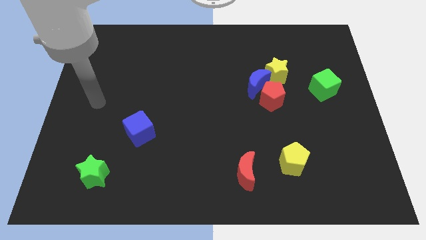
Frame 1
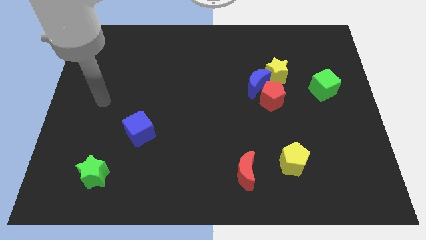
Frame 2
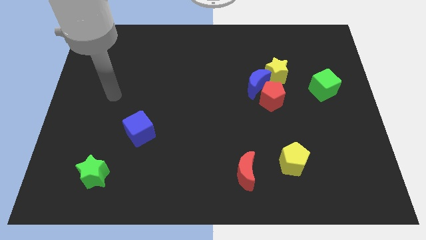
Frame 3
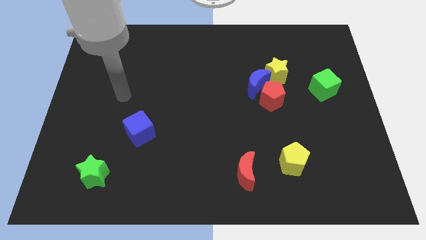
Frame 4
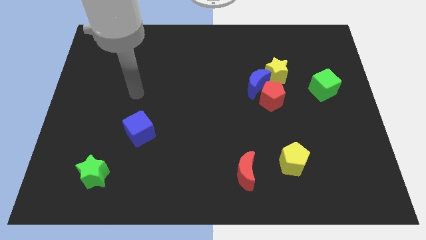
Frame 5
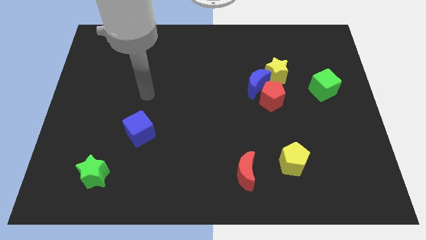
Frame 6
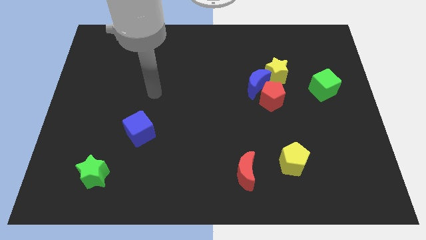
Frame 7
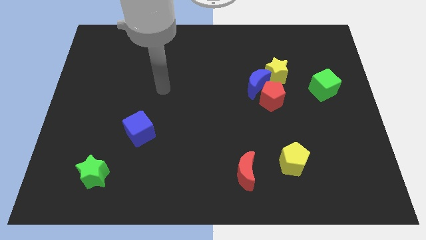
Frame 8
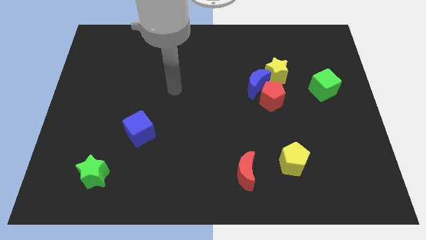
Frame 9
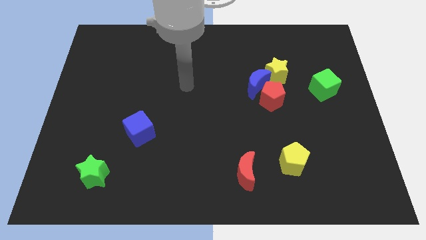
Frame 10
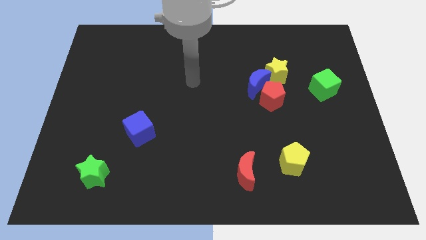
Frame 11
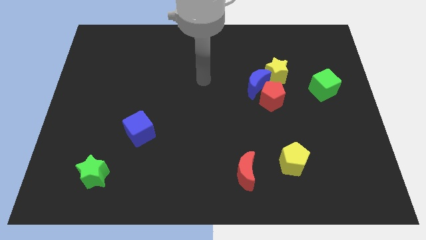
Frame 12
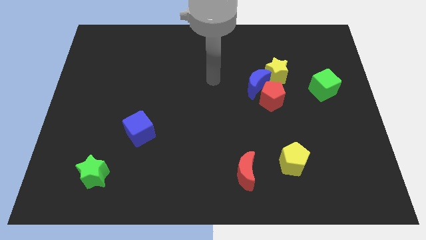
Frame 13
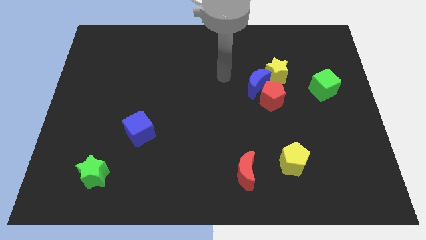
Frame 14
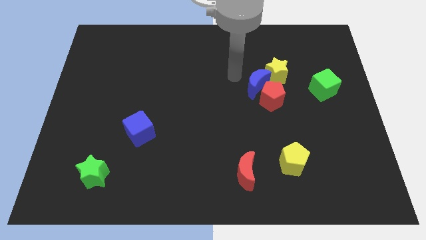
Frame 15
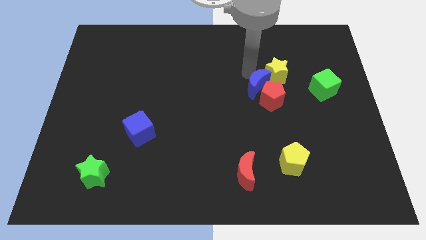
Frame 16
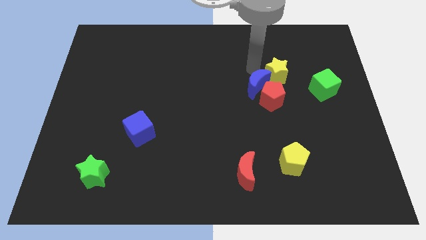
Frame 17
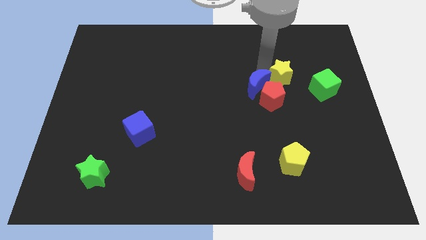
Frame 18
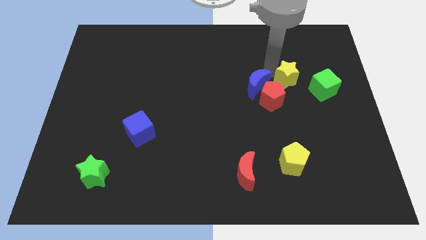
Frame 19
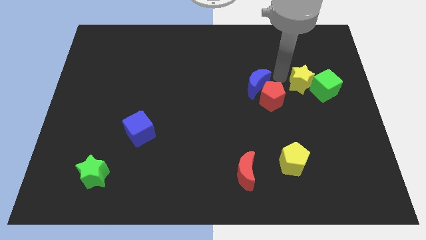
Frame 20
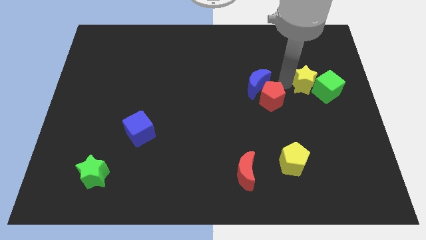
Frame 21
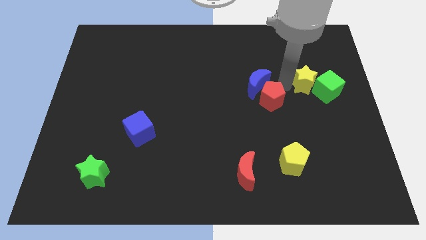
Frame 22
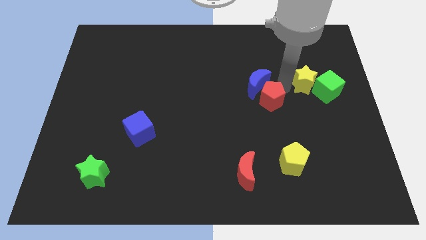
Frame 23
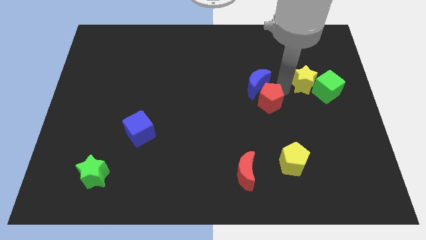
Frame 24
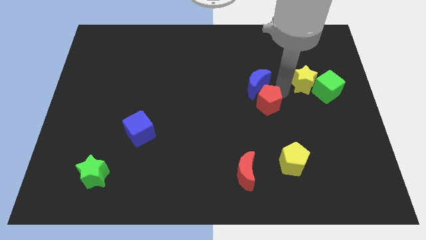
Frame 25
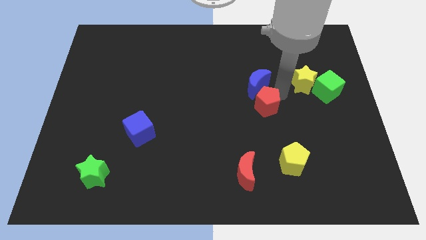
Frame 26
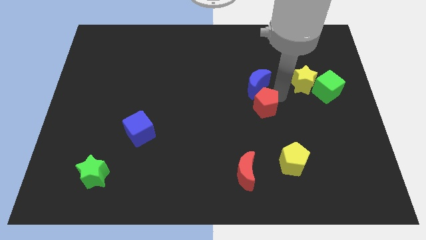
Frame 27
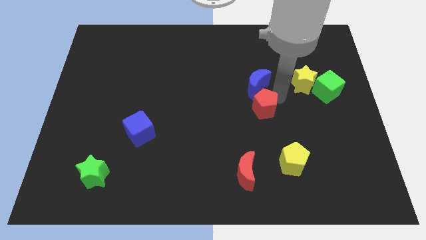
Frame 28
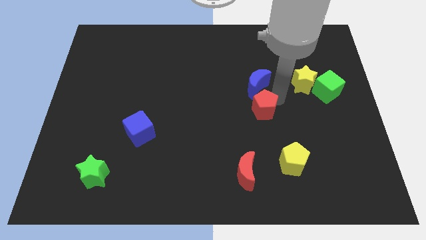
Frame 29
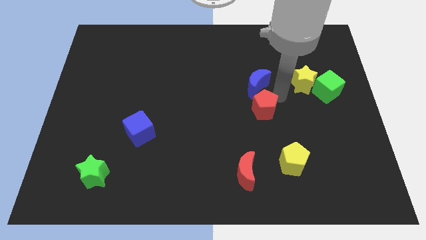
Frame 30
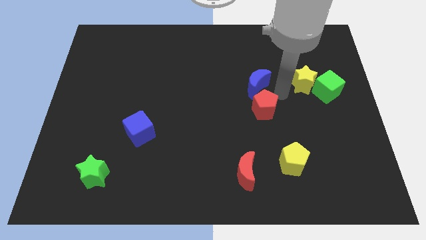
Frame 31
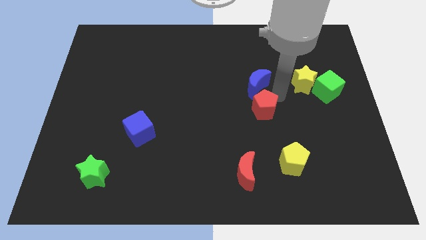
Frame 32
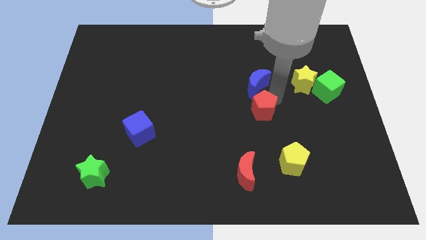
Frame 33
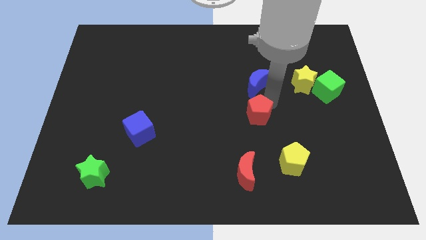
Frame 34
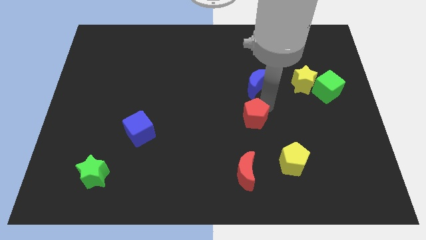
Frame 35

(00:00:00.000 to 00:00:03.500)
slide the red pentagon diagonally downwards and to the left a bit

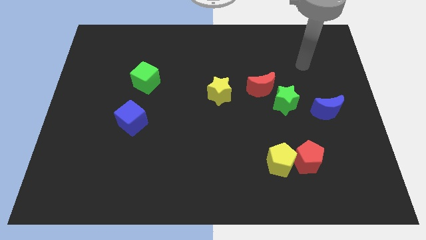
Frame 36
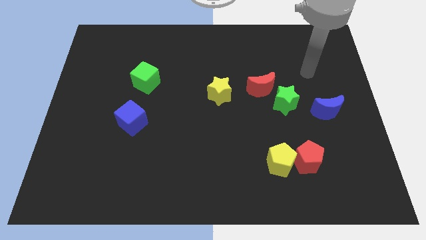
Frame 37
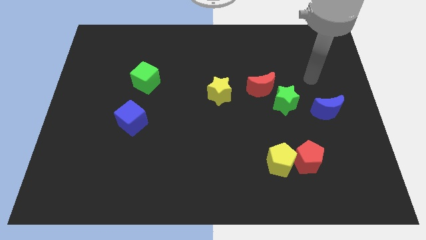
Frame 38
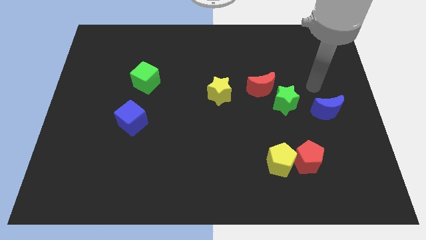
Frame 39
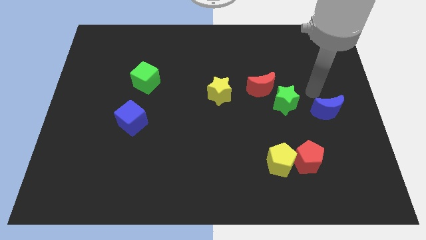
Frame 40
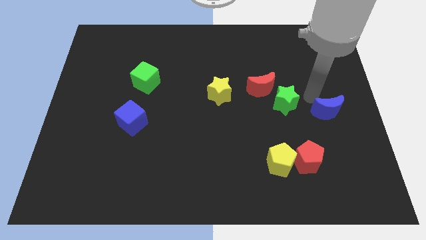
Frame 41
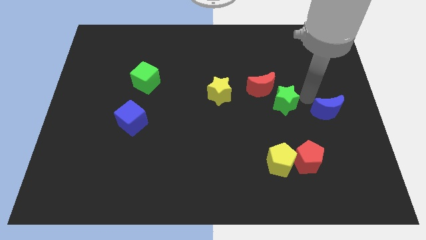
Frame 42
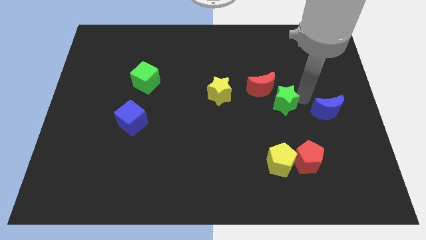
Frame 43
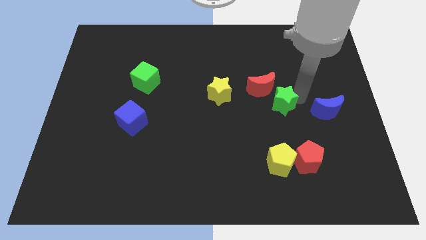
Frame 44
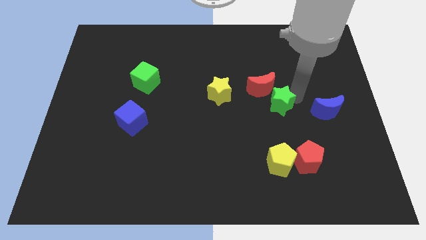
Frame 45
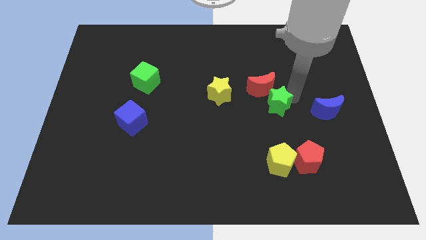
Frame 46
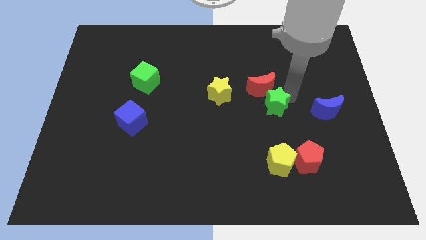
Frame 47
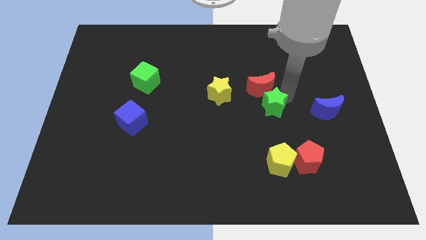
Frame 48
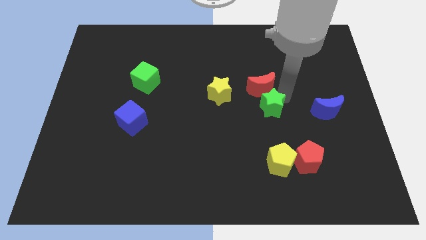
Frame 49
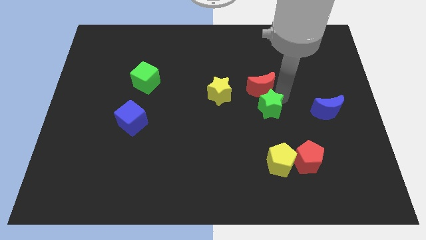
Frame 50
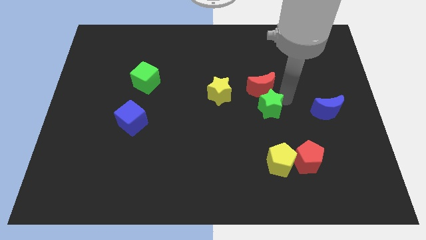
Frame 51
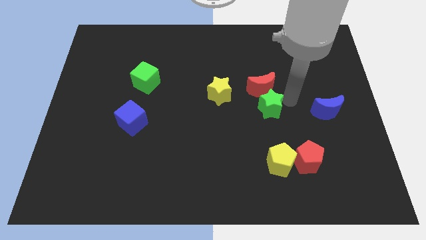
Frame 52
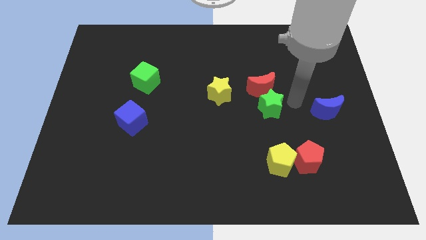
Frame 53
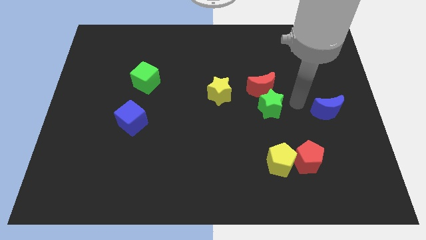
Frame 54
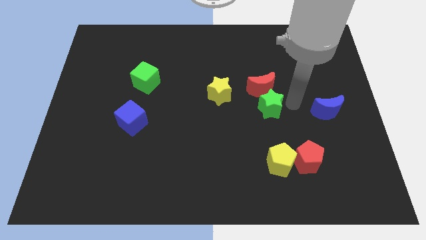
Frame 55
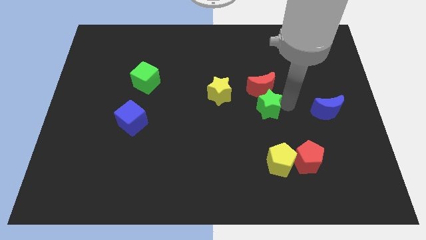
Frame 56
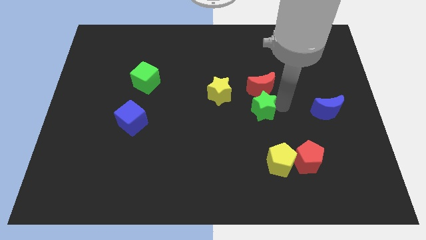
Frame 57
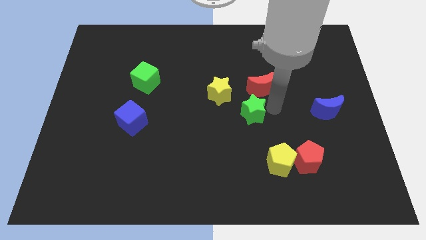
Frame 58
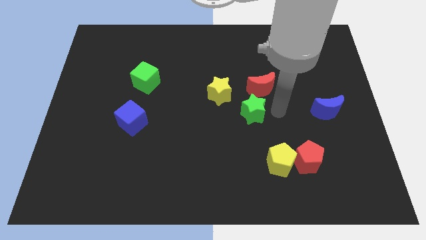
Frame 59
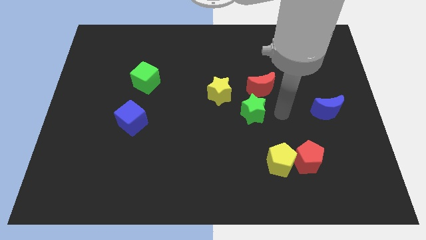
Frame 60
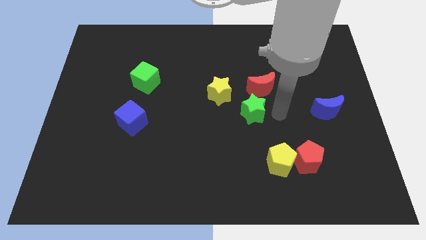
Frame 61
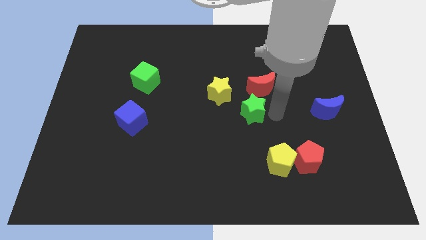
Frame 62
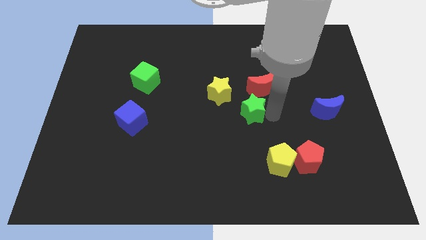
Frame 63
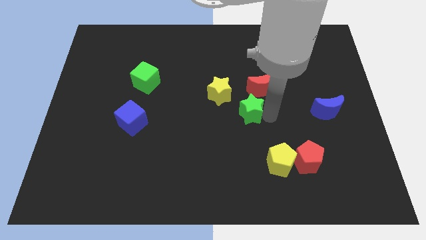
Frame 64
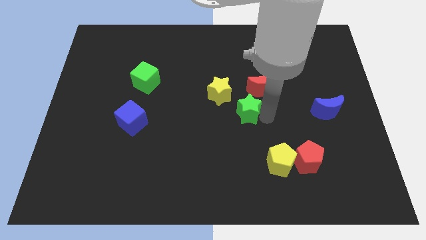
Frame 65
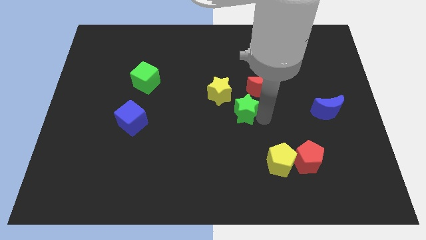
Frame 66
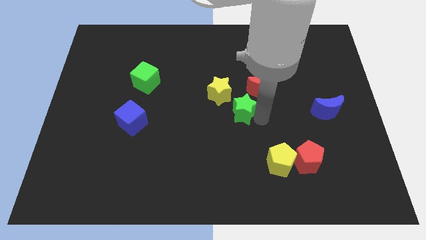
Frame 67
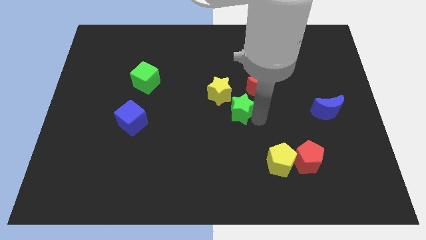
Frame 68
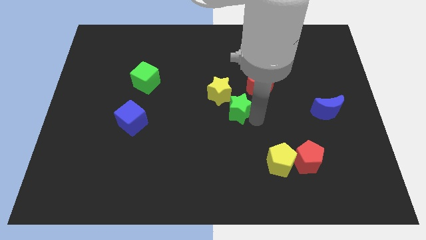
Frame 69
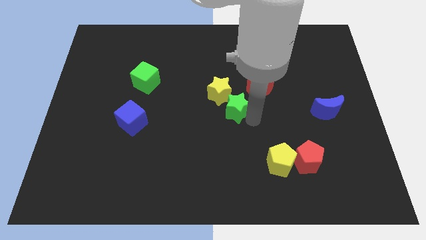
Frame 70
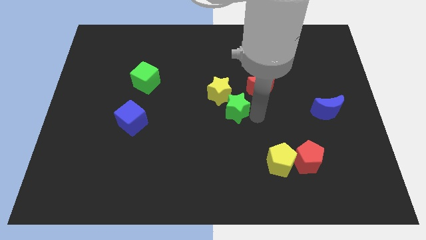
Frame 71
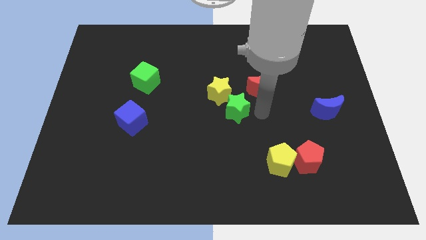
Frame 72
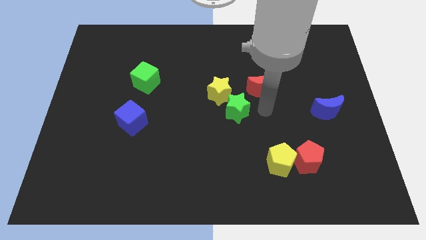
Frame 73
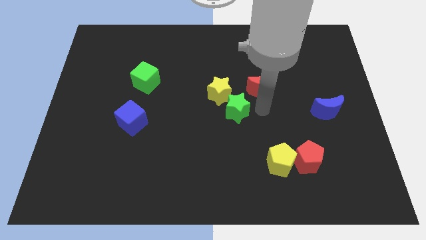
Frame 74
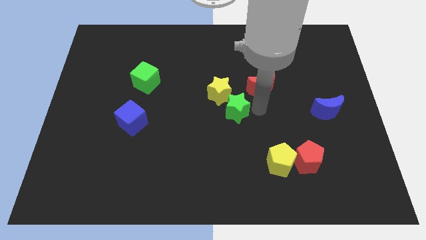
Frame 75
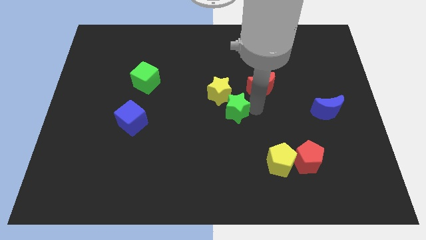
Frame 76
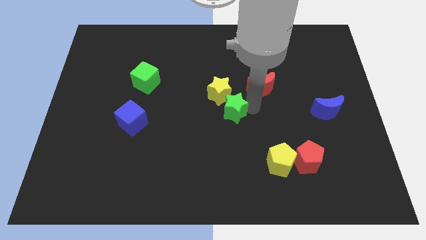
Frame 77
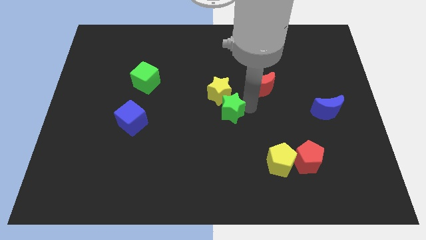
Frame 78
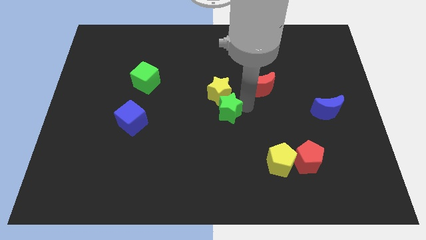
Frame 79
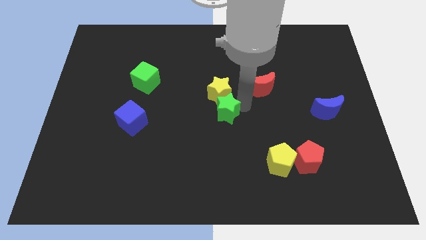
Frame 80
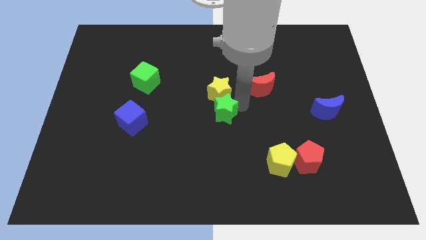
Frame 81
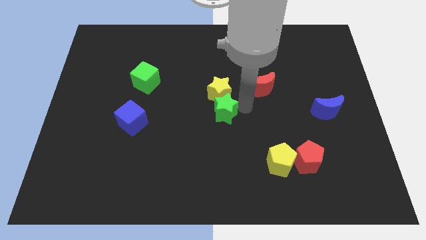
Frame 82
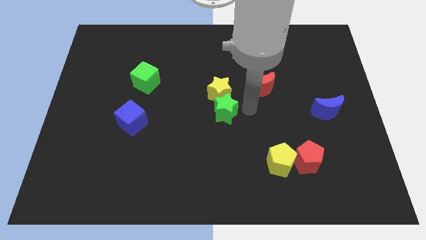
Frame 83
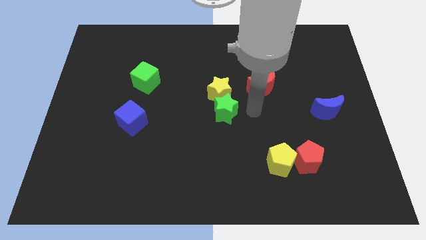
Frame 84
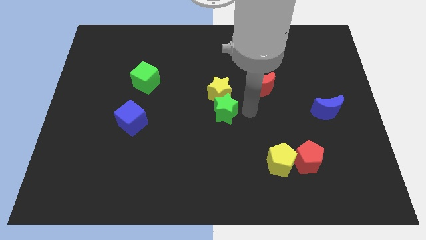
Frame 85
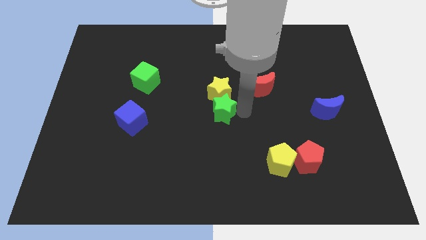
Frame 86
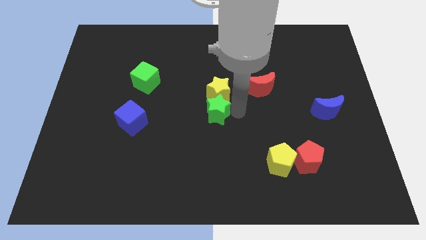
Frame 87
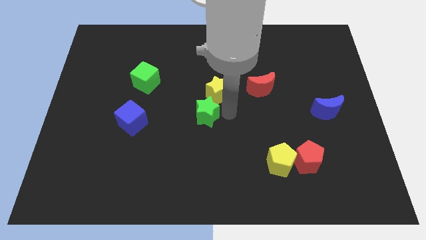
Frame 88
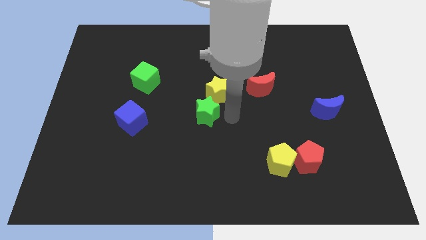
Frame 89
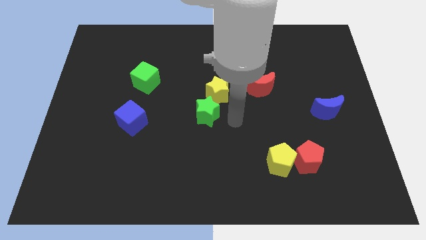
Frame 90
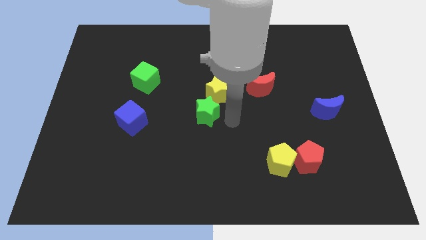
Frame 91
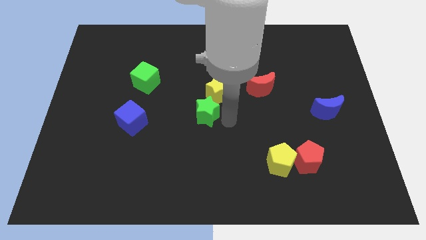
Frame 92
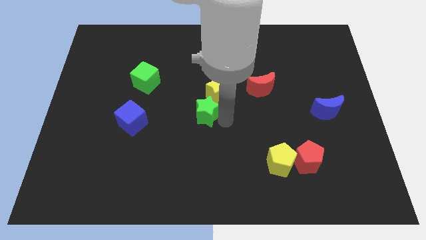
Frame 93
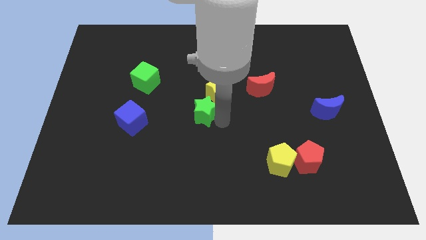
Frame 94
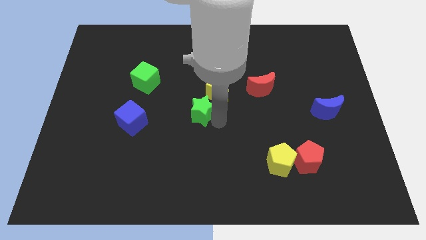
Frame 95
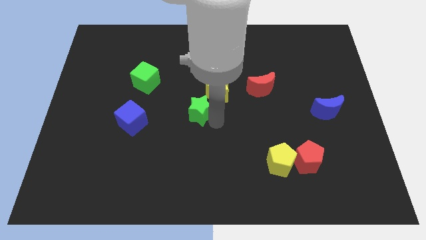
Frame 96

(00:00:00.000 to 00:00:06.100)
move the green star left
